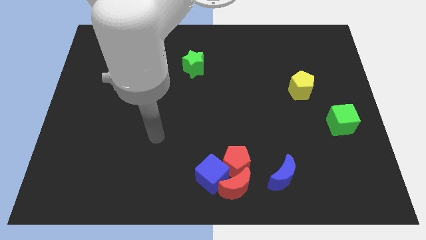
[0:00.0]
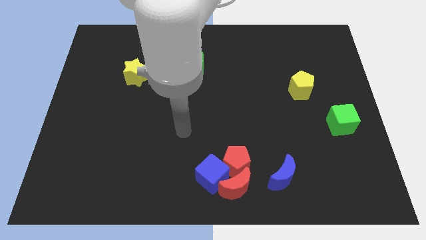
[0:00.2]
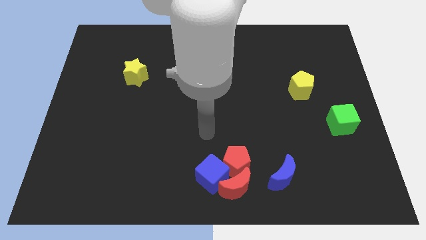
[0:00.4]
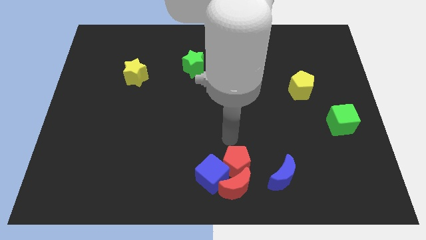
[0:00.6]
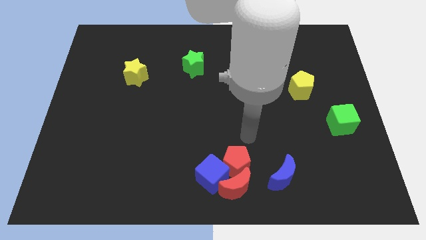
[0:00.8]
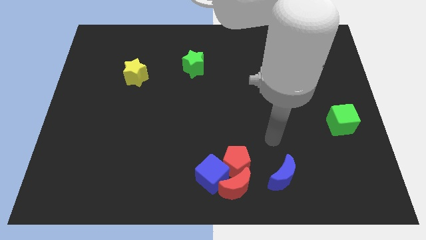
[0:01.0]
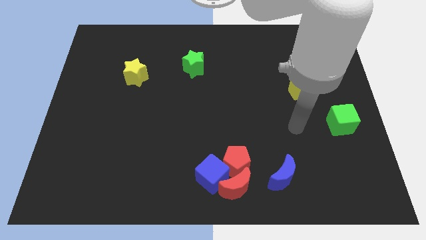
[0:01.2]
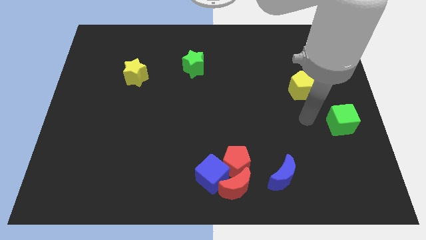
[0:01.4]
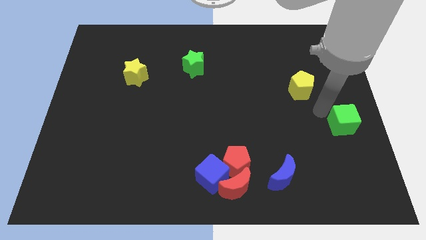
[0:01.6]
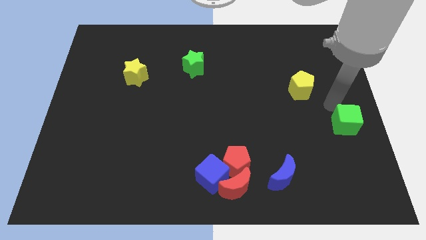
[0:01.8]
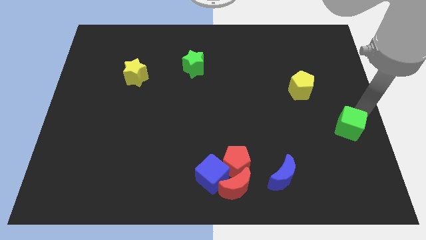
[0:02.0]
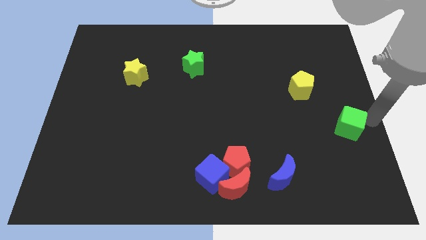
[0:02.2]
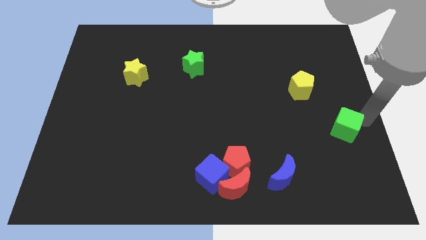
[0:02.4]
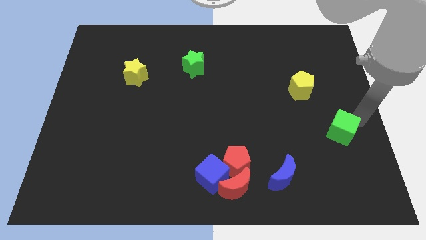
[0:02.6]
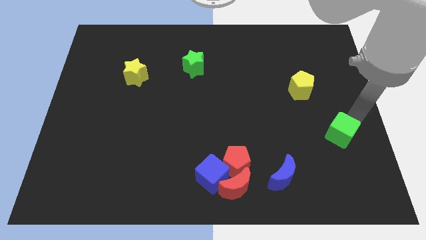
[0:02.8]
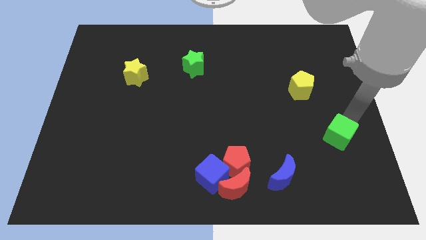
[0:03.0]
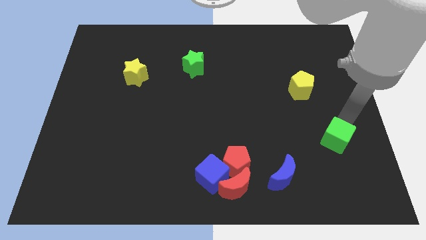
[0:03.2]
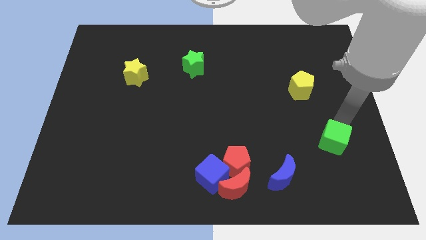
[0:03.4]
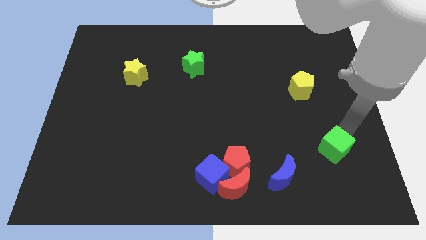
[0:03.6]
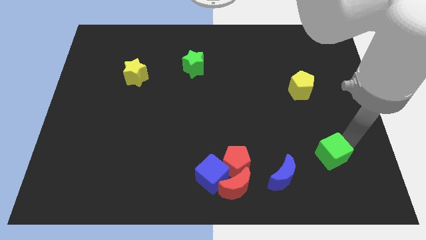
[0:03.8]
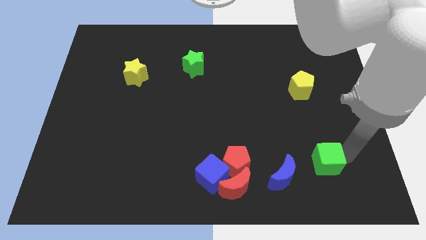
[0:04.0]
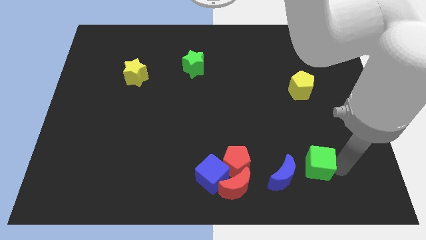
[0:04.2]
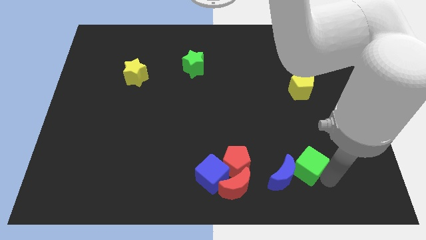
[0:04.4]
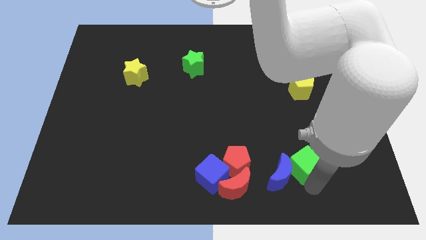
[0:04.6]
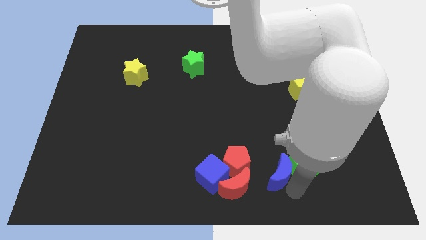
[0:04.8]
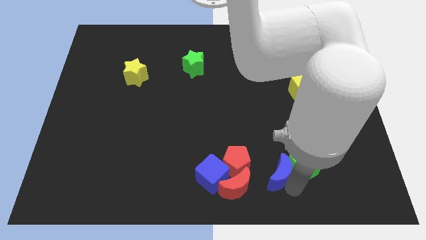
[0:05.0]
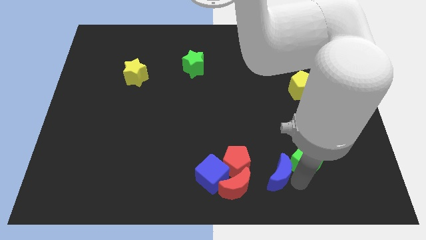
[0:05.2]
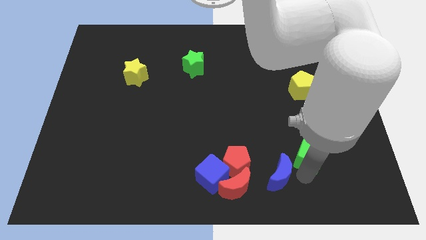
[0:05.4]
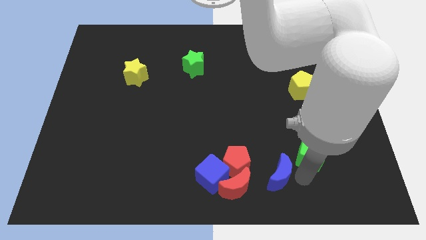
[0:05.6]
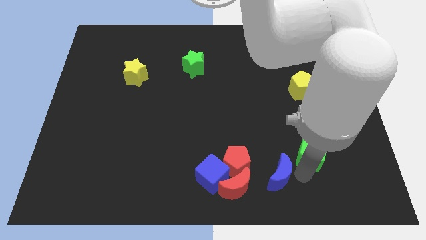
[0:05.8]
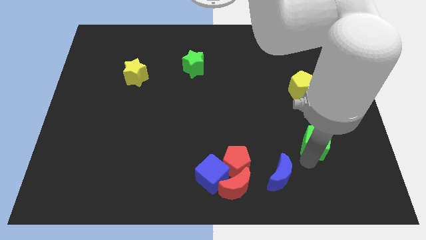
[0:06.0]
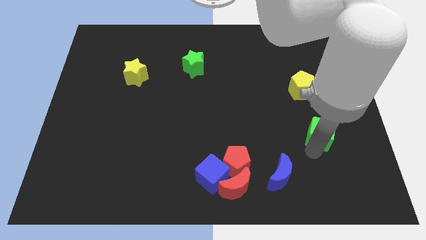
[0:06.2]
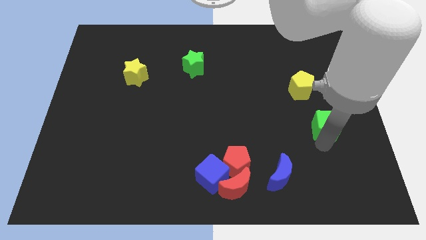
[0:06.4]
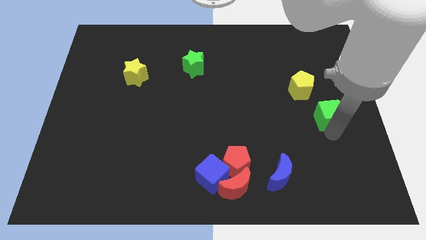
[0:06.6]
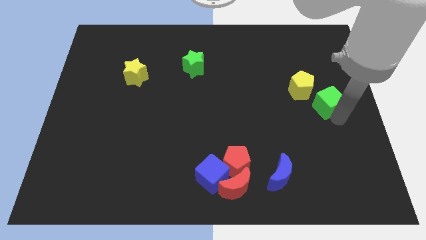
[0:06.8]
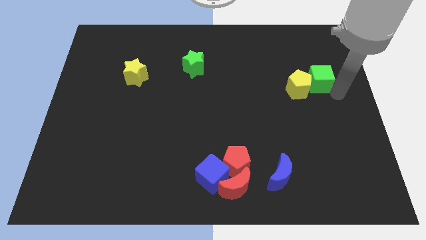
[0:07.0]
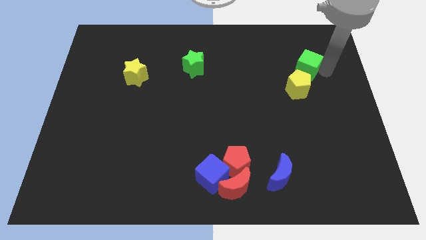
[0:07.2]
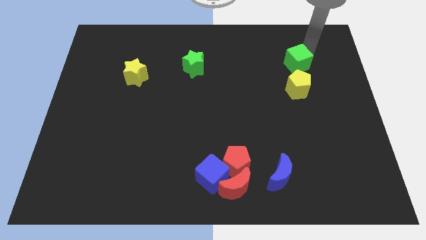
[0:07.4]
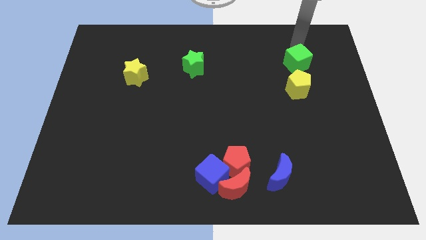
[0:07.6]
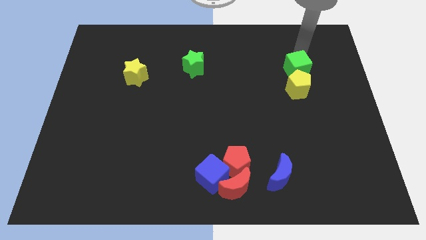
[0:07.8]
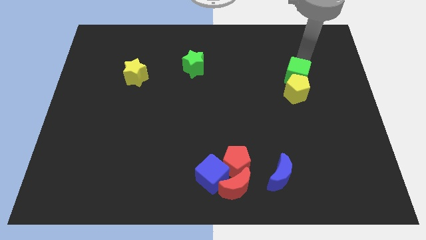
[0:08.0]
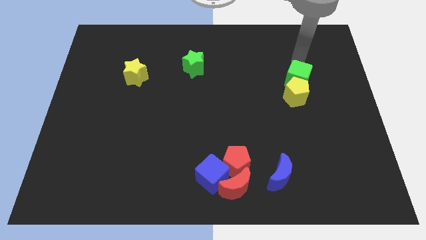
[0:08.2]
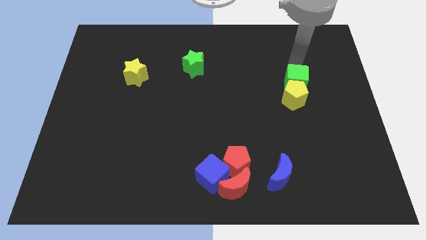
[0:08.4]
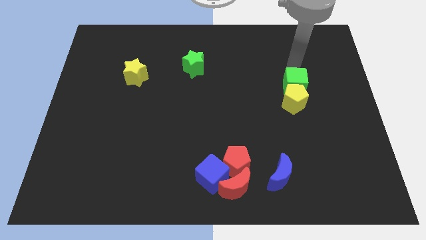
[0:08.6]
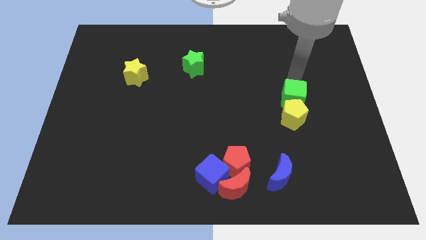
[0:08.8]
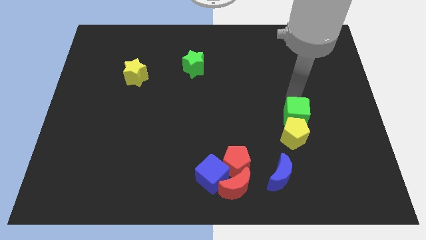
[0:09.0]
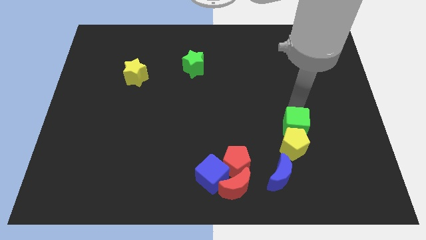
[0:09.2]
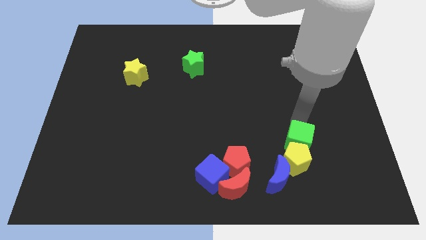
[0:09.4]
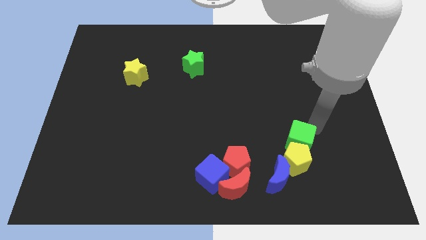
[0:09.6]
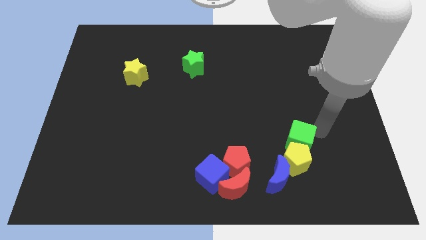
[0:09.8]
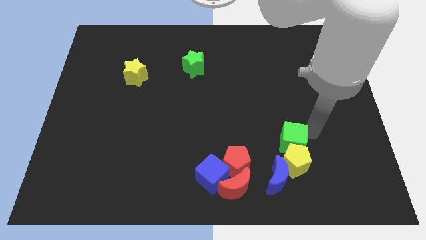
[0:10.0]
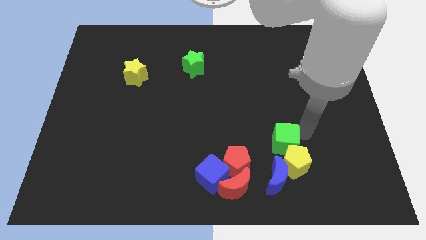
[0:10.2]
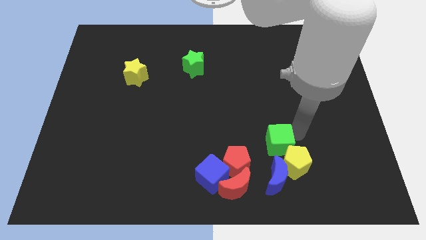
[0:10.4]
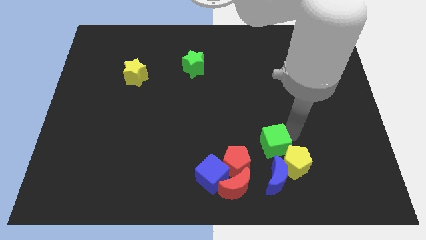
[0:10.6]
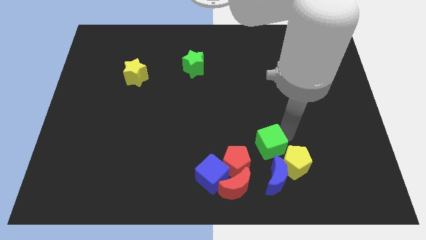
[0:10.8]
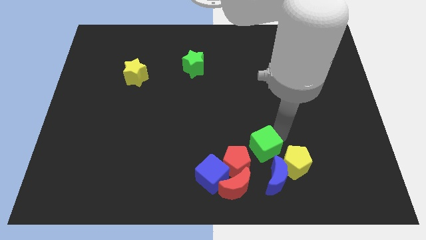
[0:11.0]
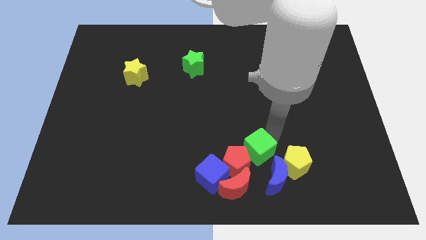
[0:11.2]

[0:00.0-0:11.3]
slide the green cube close to the red pentagon

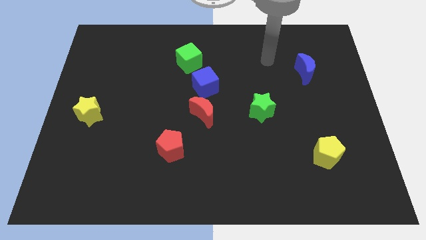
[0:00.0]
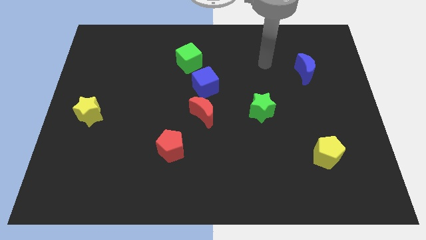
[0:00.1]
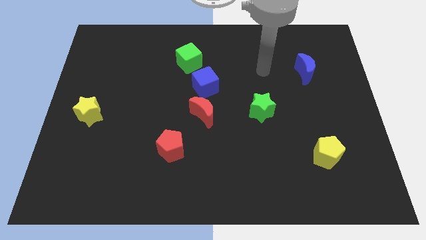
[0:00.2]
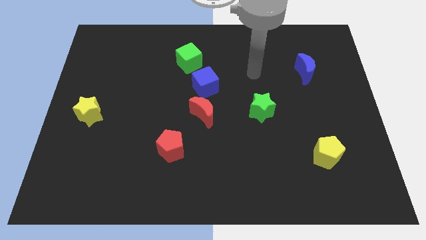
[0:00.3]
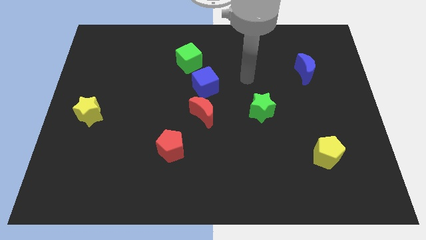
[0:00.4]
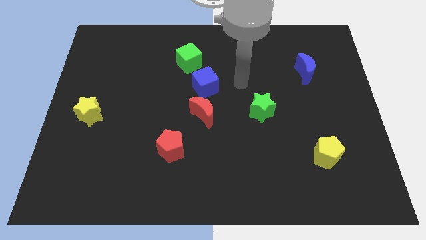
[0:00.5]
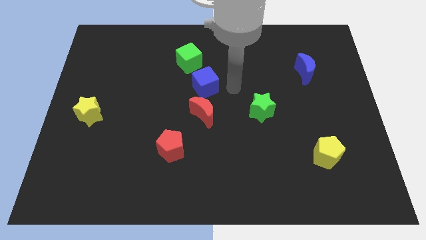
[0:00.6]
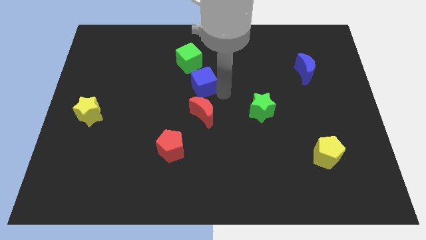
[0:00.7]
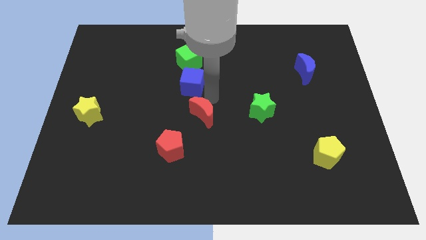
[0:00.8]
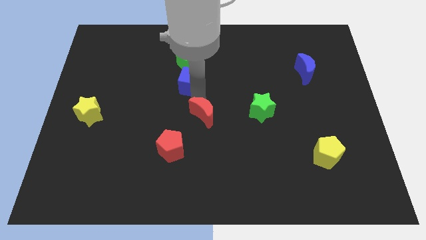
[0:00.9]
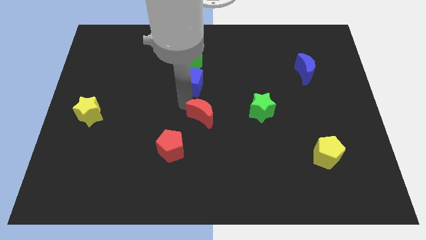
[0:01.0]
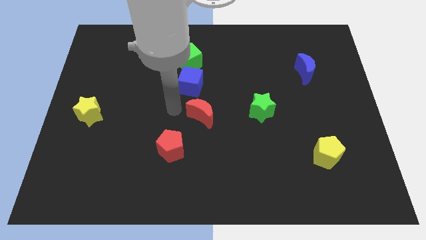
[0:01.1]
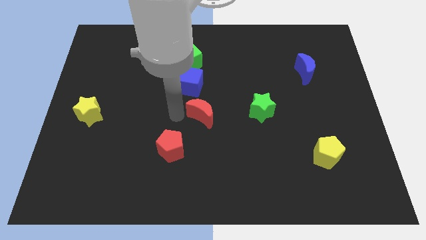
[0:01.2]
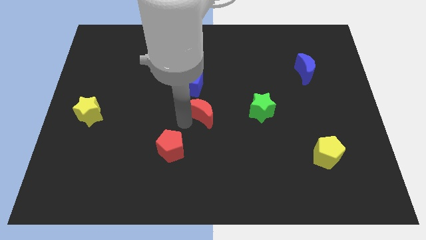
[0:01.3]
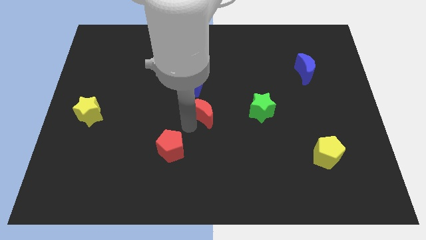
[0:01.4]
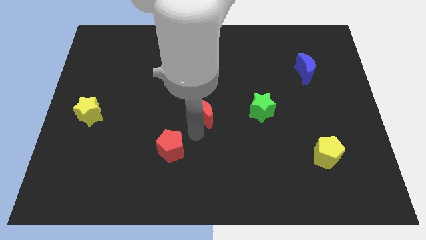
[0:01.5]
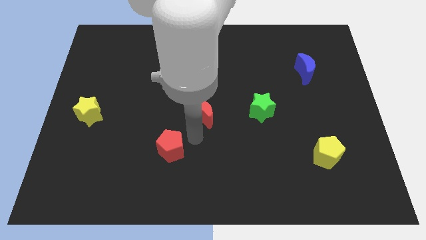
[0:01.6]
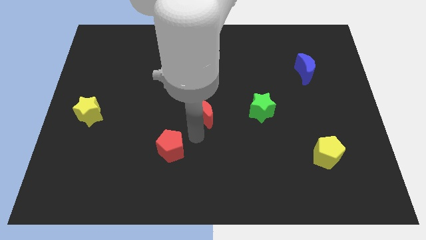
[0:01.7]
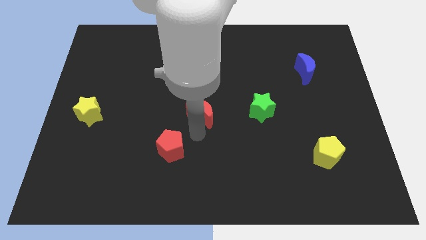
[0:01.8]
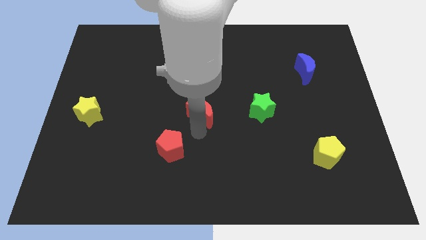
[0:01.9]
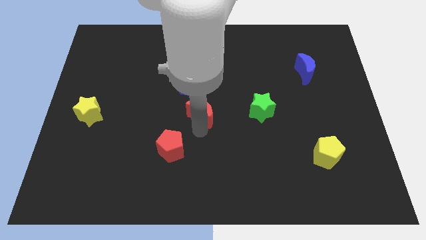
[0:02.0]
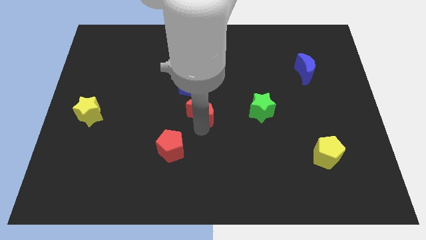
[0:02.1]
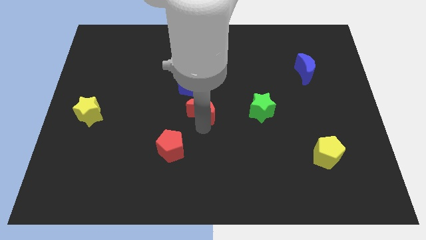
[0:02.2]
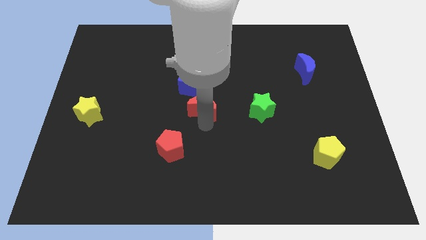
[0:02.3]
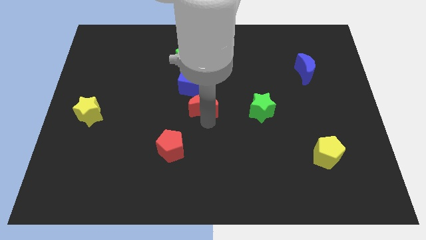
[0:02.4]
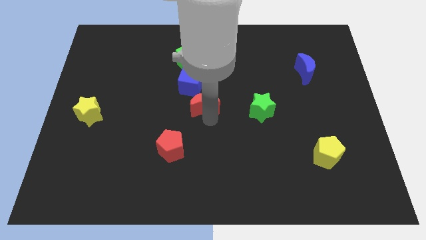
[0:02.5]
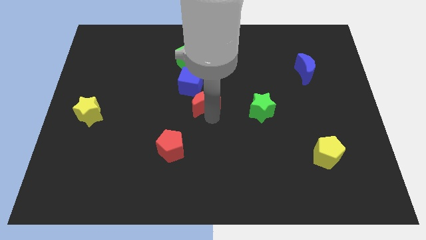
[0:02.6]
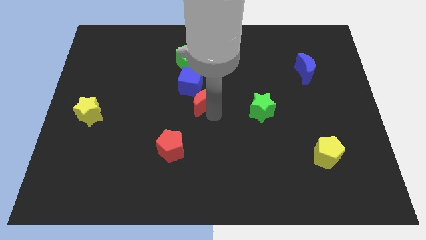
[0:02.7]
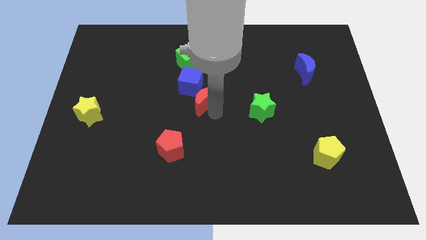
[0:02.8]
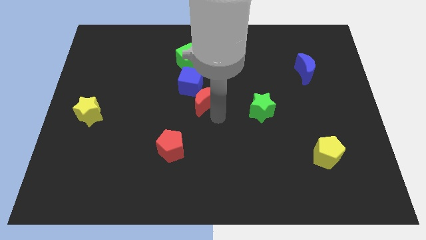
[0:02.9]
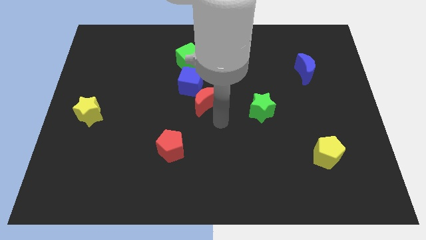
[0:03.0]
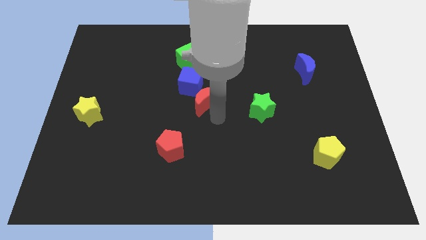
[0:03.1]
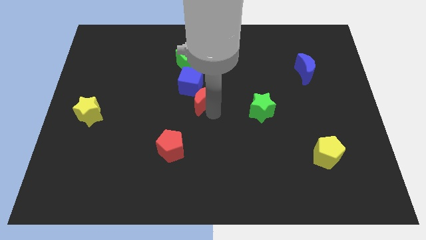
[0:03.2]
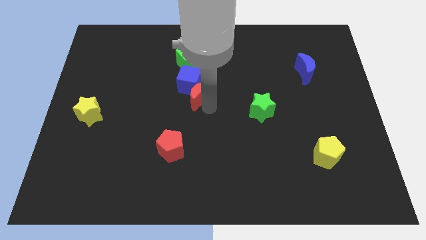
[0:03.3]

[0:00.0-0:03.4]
put the red moon next to the blue cube
